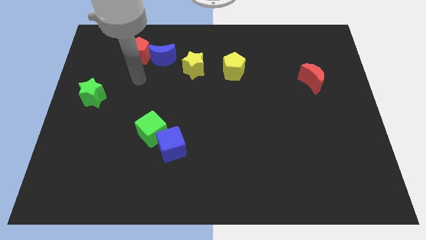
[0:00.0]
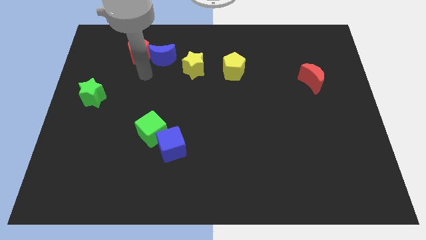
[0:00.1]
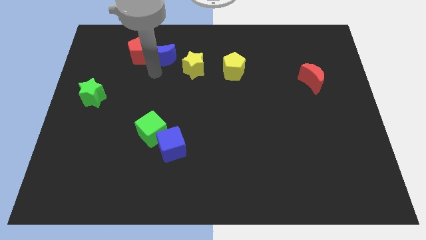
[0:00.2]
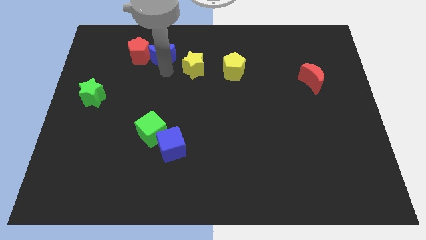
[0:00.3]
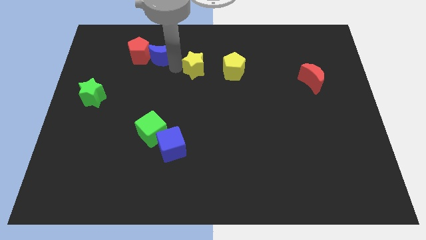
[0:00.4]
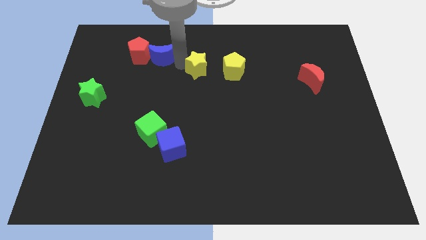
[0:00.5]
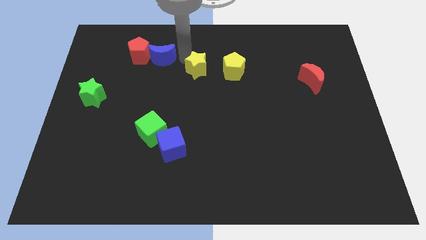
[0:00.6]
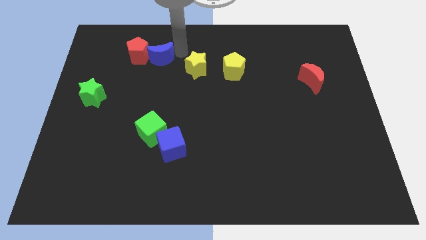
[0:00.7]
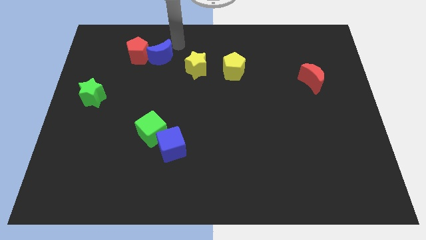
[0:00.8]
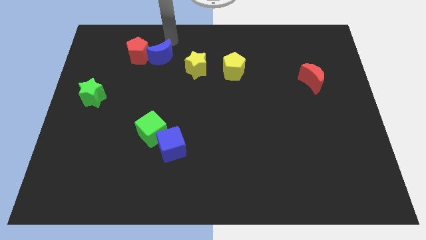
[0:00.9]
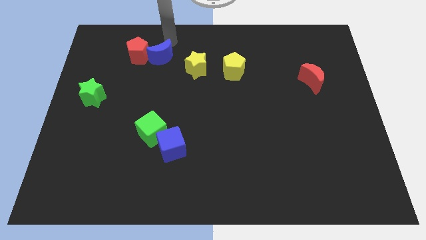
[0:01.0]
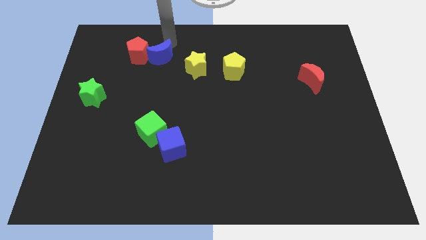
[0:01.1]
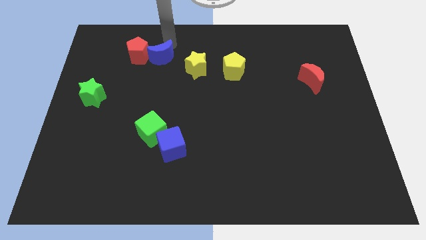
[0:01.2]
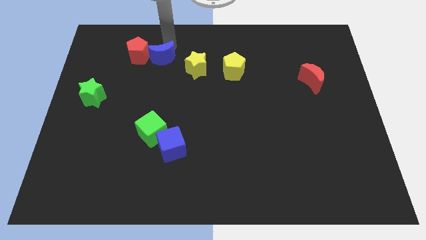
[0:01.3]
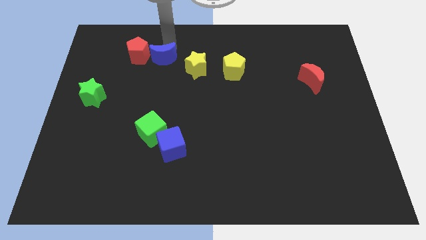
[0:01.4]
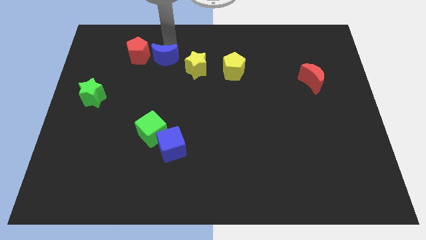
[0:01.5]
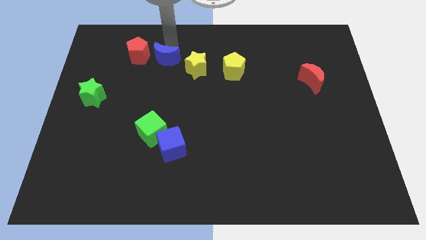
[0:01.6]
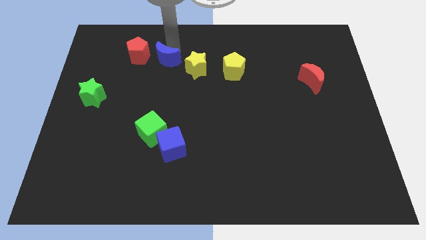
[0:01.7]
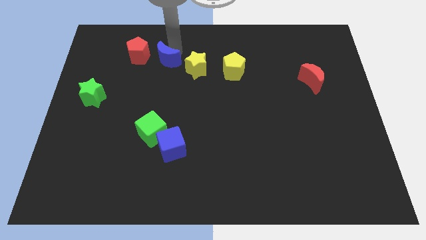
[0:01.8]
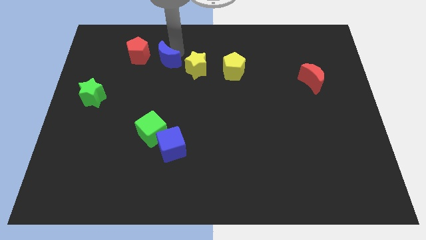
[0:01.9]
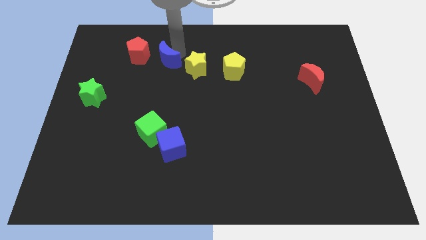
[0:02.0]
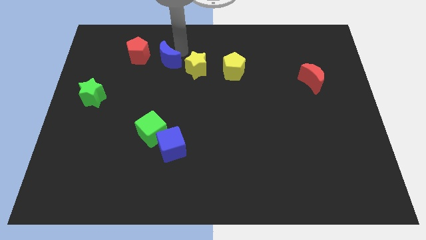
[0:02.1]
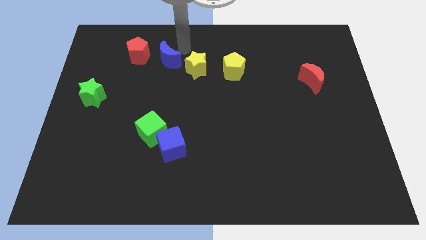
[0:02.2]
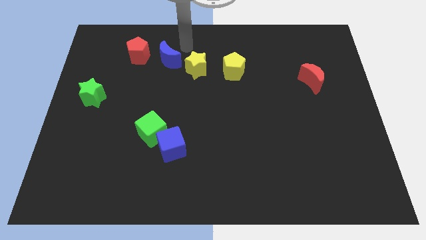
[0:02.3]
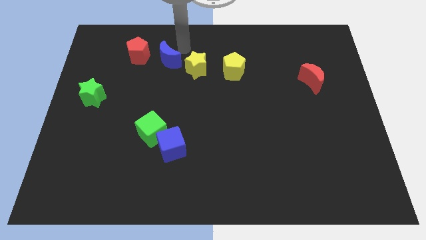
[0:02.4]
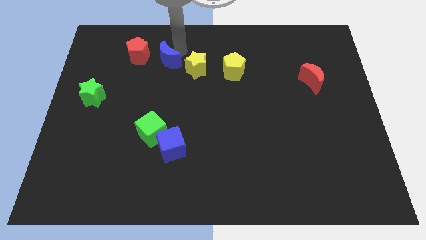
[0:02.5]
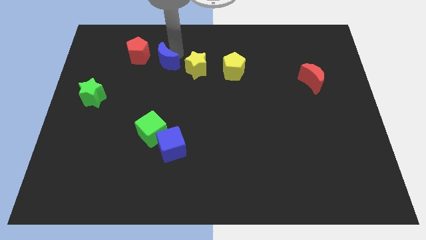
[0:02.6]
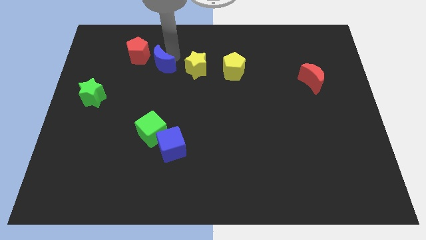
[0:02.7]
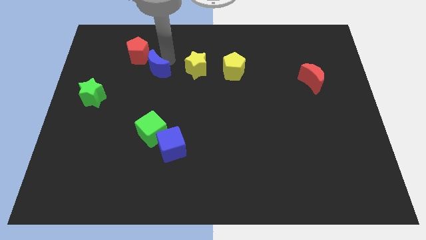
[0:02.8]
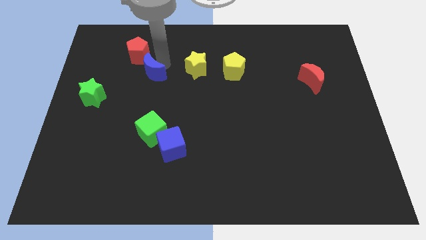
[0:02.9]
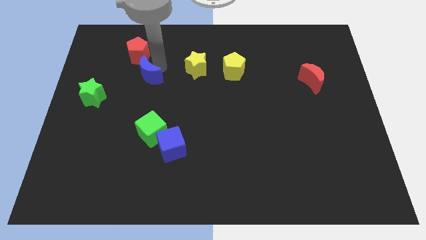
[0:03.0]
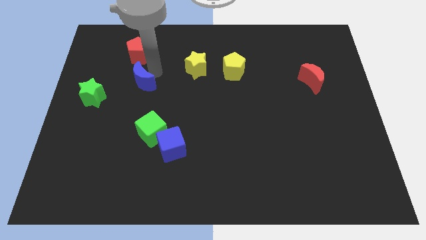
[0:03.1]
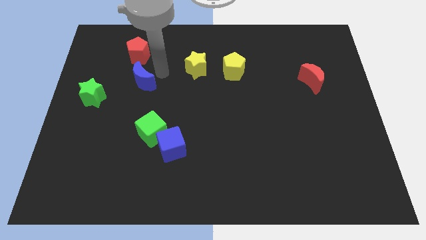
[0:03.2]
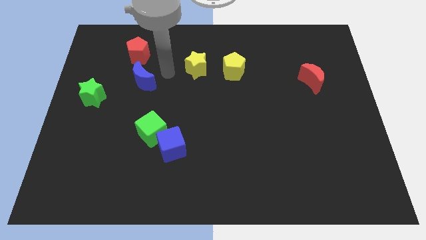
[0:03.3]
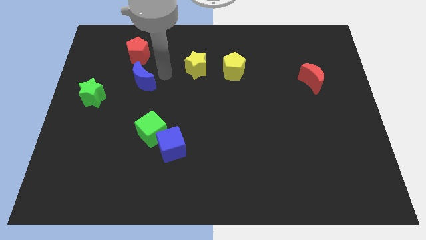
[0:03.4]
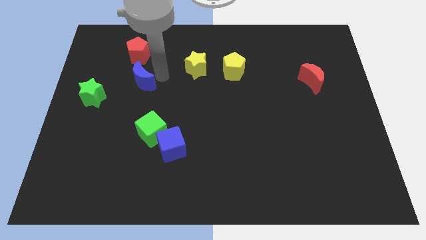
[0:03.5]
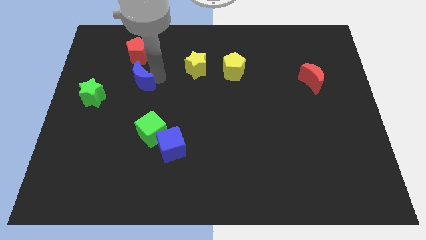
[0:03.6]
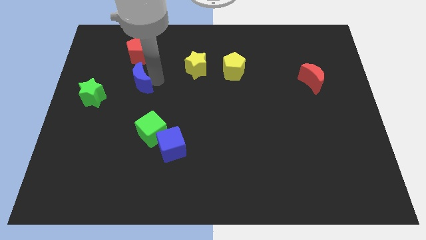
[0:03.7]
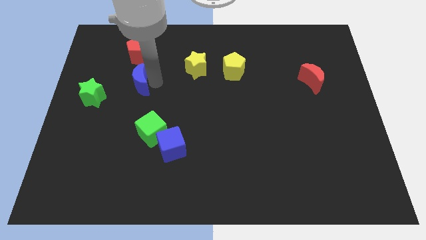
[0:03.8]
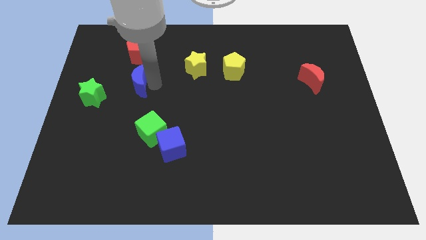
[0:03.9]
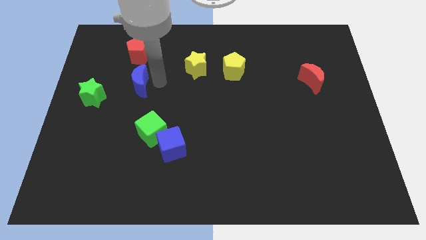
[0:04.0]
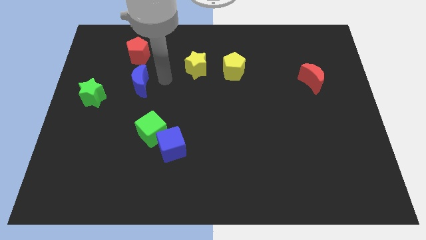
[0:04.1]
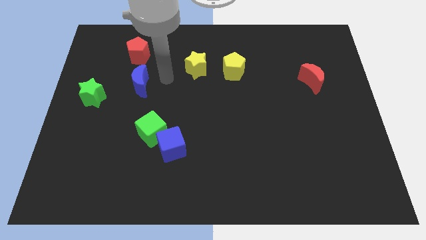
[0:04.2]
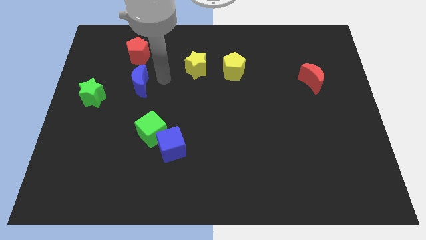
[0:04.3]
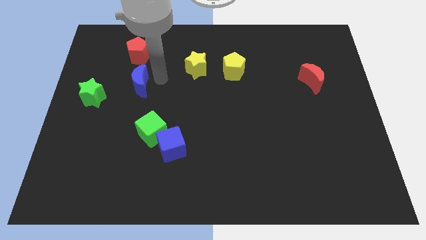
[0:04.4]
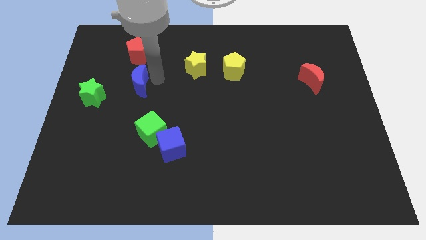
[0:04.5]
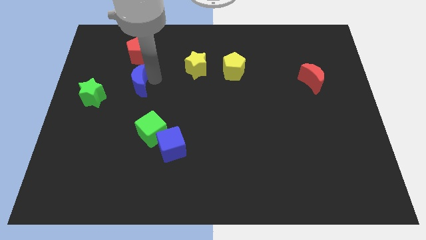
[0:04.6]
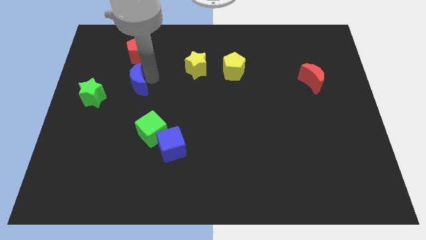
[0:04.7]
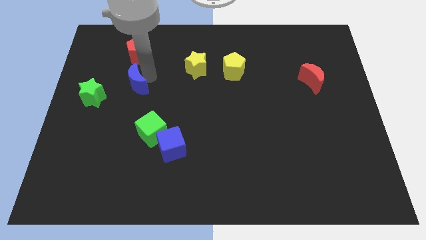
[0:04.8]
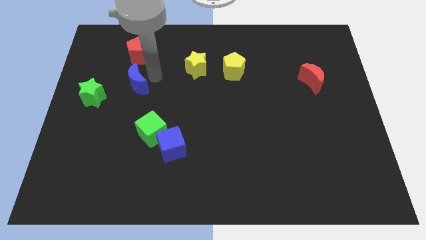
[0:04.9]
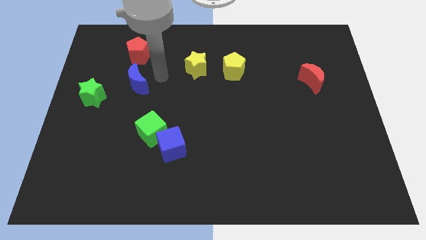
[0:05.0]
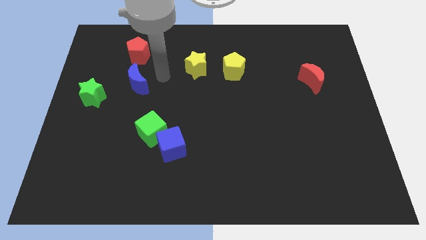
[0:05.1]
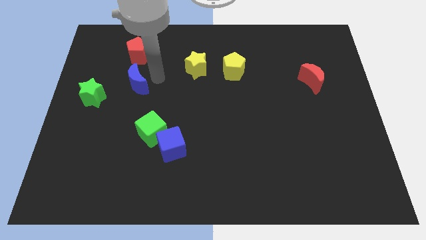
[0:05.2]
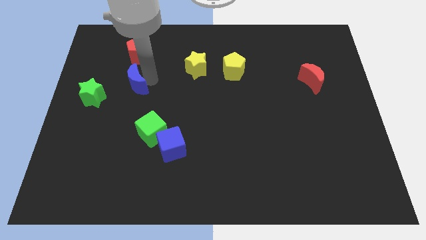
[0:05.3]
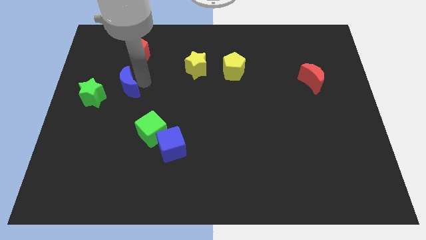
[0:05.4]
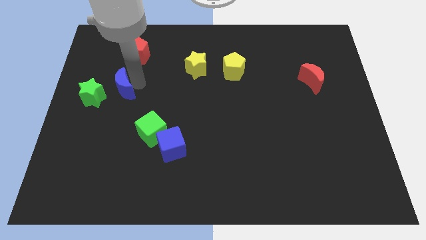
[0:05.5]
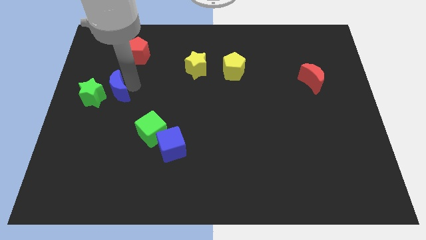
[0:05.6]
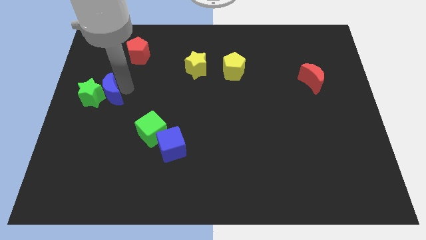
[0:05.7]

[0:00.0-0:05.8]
put the blue moon towards the green star

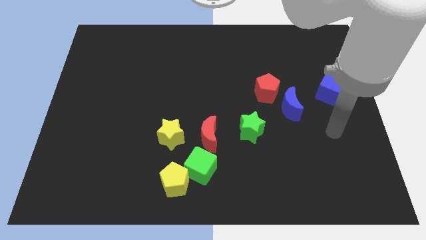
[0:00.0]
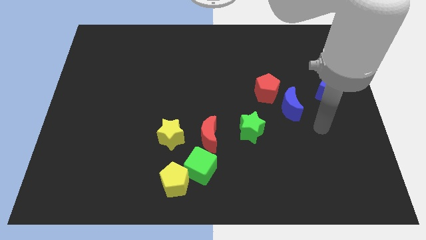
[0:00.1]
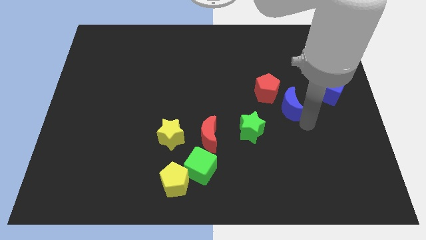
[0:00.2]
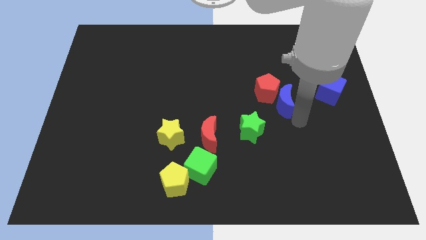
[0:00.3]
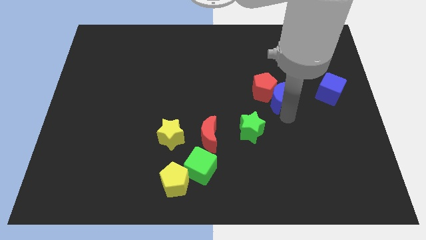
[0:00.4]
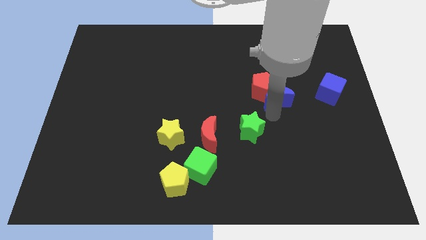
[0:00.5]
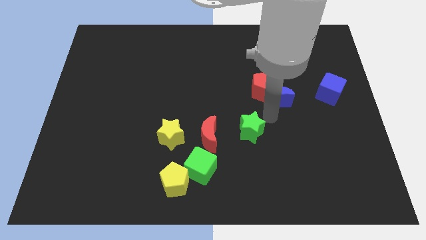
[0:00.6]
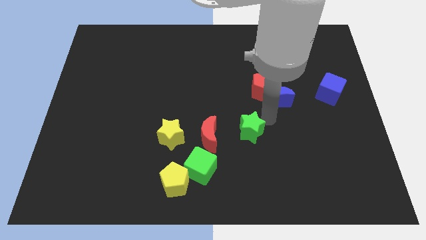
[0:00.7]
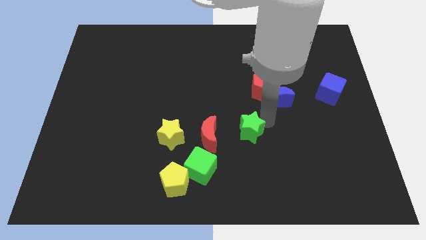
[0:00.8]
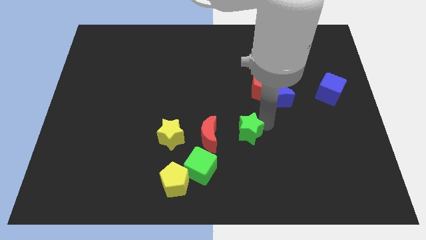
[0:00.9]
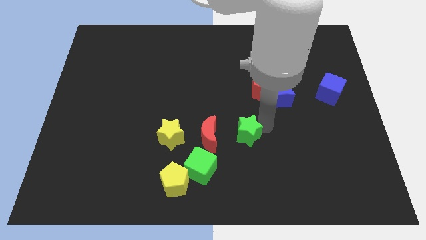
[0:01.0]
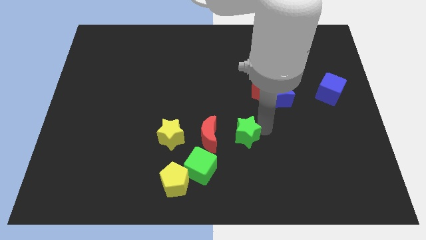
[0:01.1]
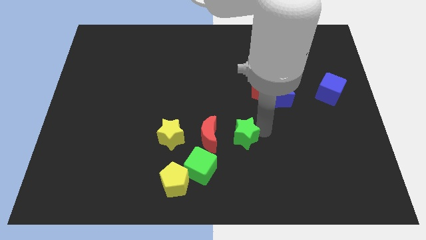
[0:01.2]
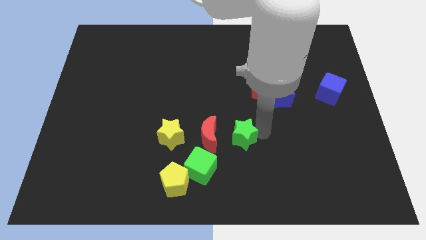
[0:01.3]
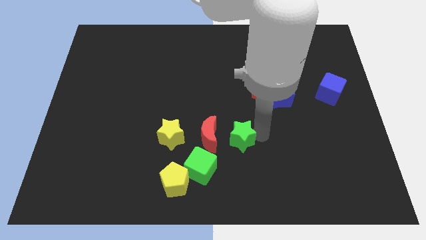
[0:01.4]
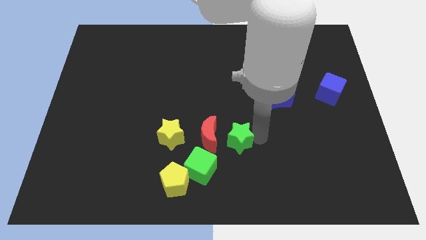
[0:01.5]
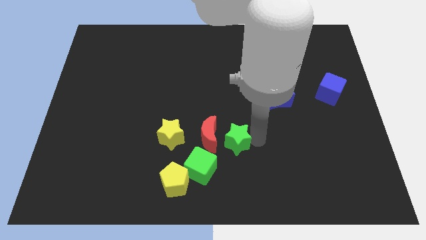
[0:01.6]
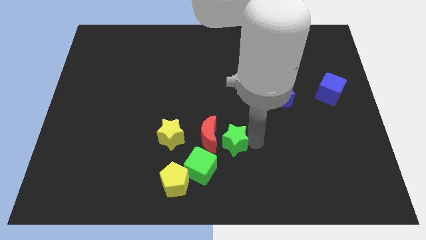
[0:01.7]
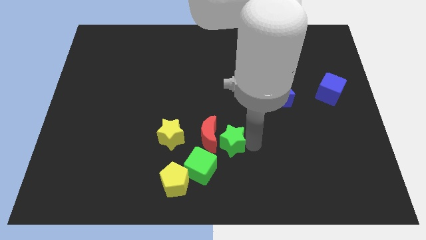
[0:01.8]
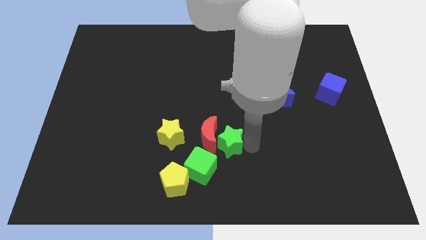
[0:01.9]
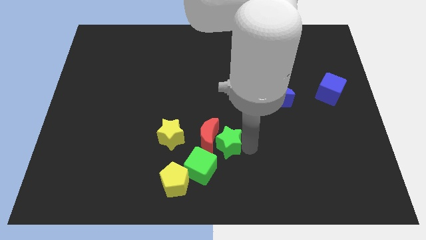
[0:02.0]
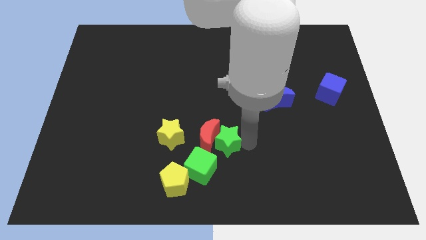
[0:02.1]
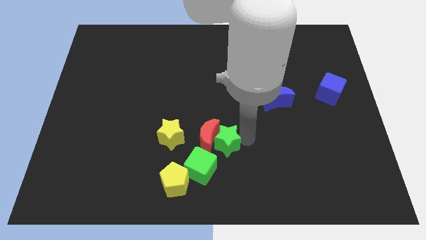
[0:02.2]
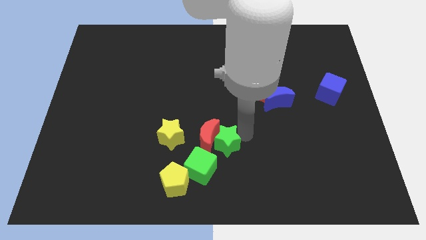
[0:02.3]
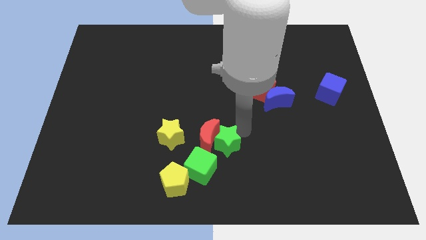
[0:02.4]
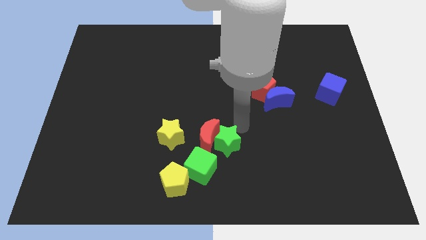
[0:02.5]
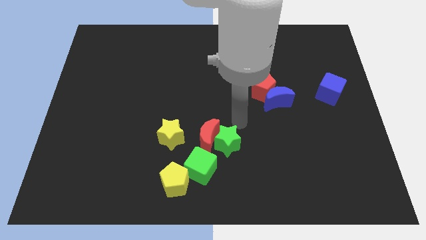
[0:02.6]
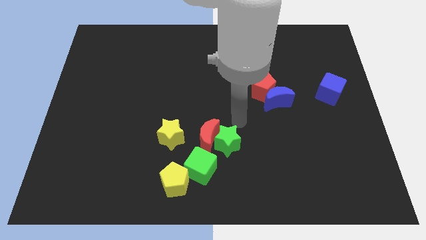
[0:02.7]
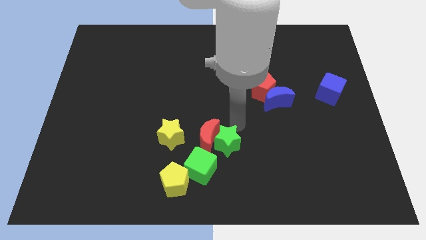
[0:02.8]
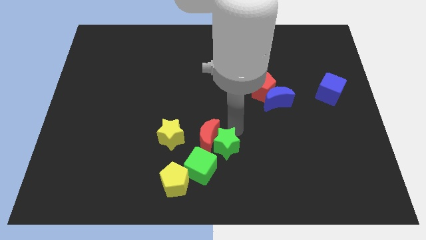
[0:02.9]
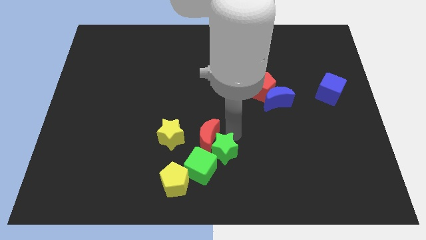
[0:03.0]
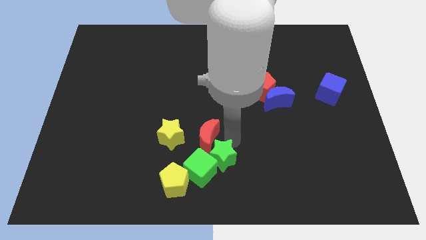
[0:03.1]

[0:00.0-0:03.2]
put the green star close to the green cube
